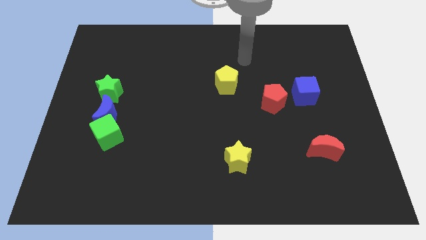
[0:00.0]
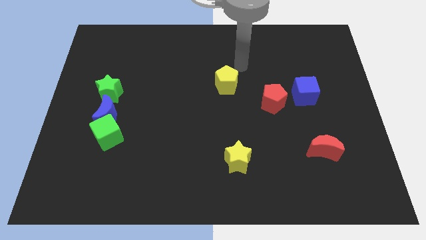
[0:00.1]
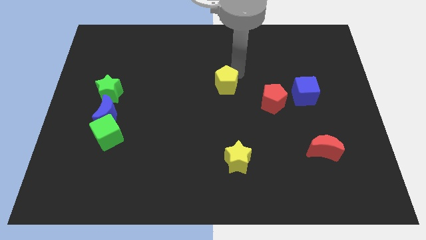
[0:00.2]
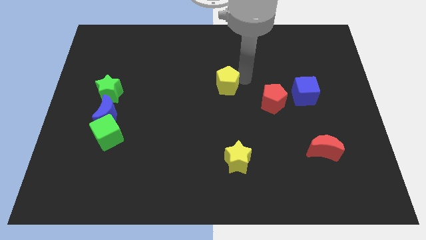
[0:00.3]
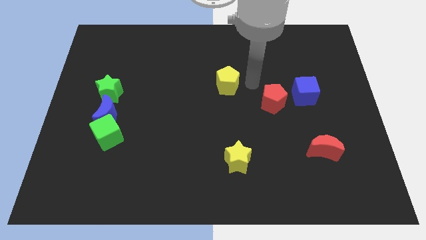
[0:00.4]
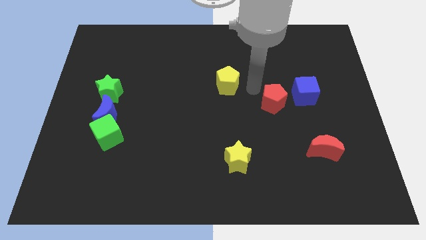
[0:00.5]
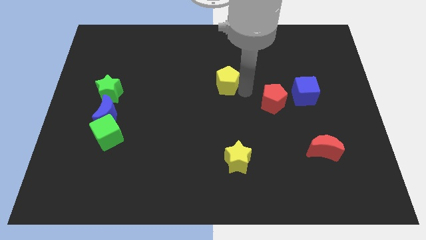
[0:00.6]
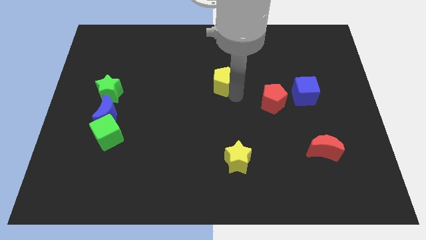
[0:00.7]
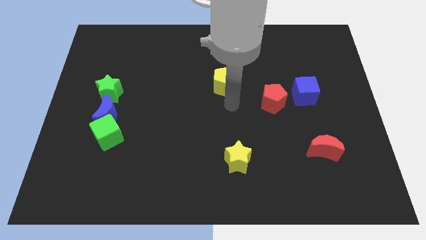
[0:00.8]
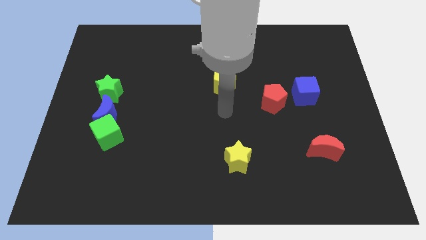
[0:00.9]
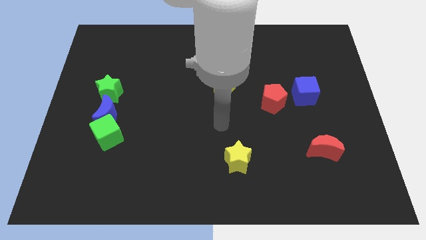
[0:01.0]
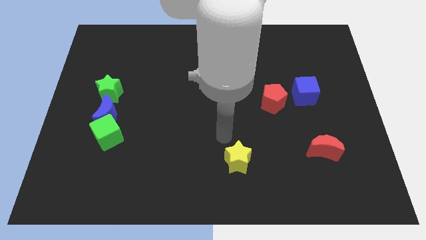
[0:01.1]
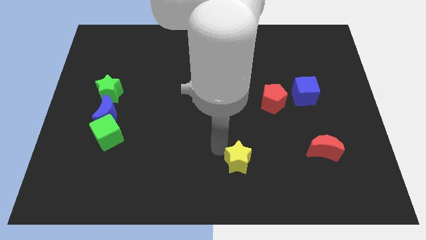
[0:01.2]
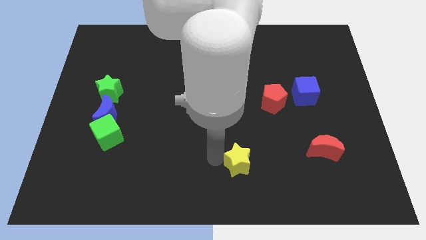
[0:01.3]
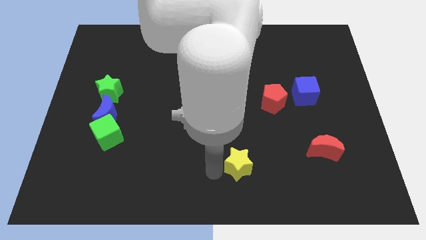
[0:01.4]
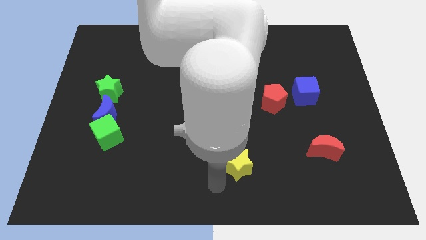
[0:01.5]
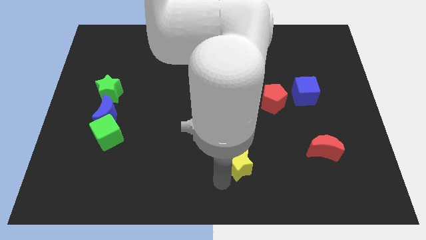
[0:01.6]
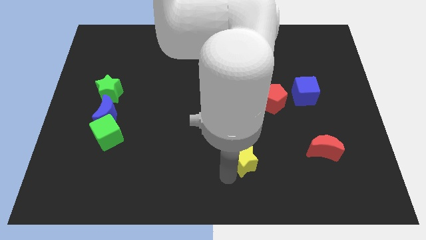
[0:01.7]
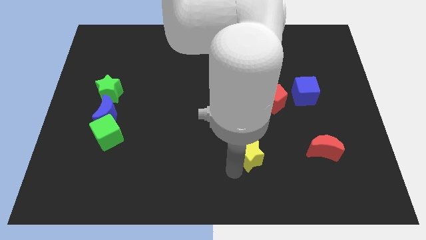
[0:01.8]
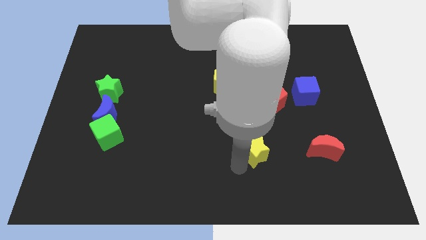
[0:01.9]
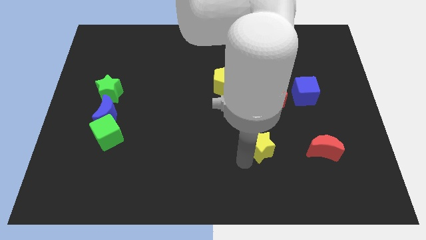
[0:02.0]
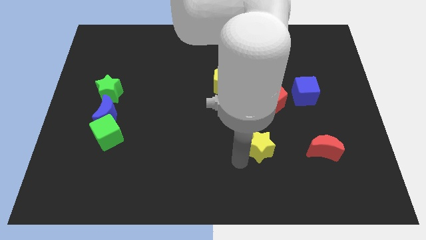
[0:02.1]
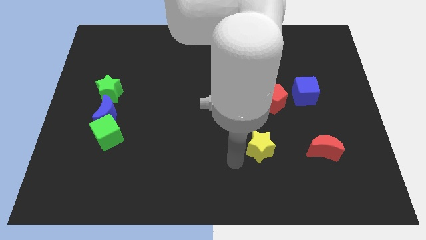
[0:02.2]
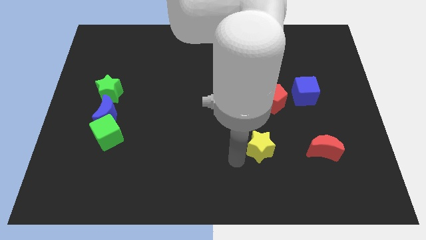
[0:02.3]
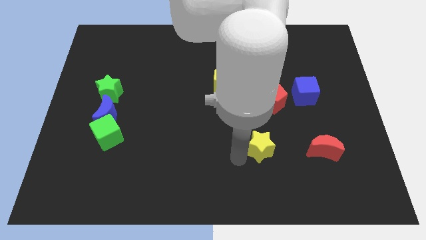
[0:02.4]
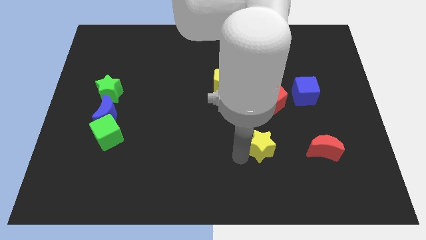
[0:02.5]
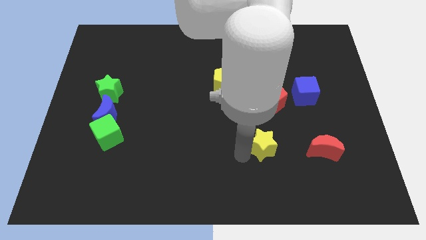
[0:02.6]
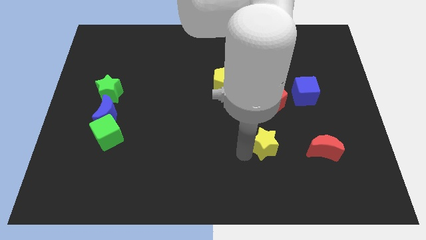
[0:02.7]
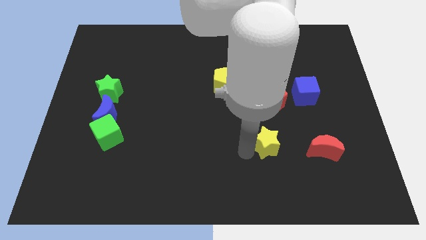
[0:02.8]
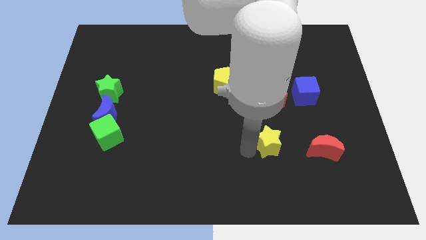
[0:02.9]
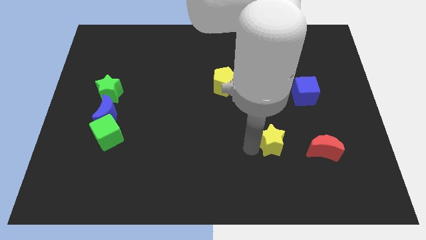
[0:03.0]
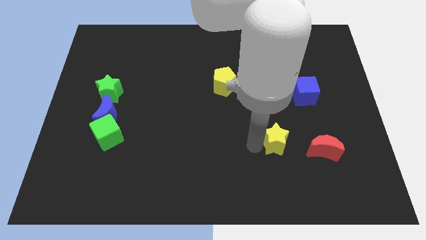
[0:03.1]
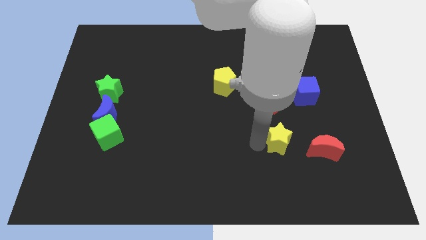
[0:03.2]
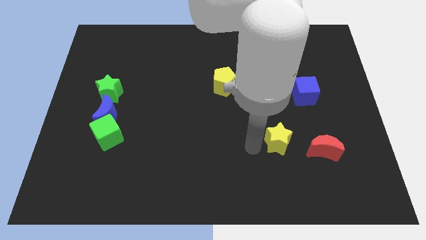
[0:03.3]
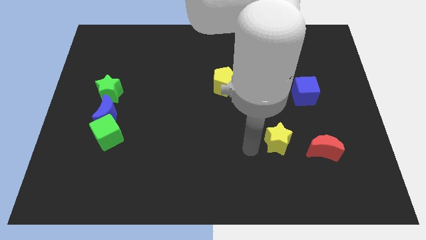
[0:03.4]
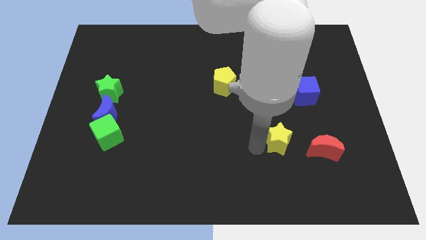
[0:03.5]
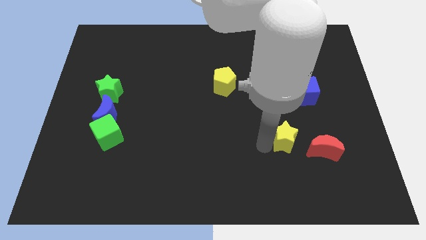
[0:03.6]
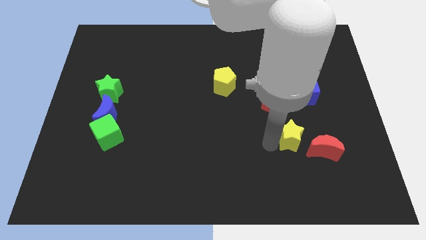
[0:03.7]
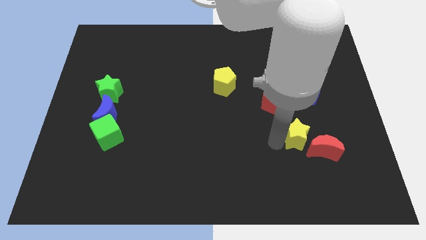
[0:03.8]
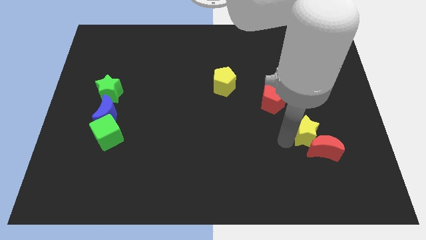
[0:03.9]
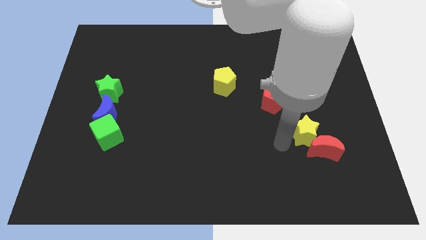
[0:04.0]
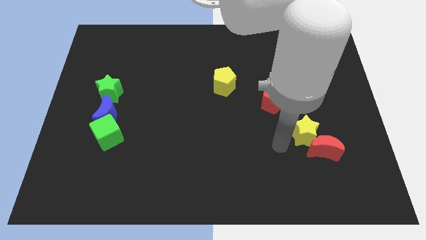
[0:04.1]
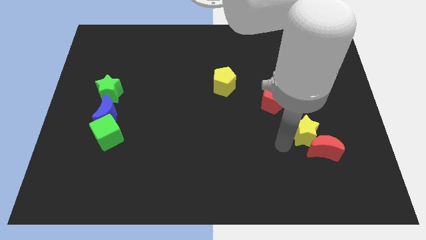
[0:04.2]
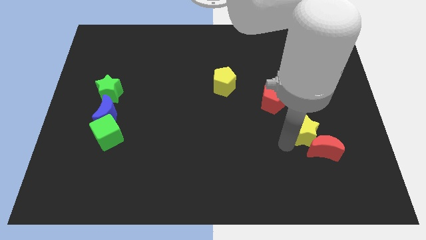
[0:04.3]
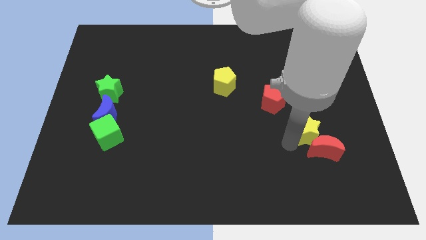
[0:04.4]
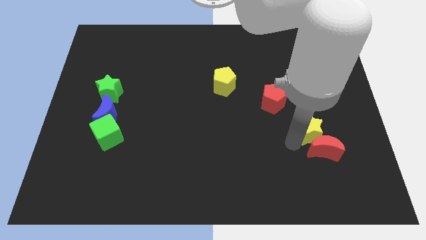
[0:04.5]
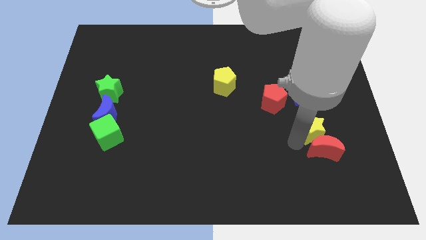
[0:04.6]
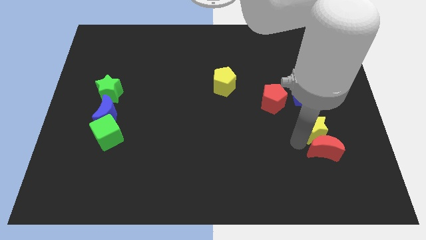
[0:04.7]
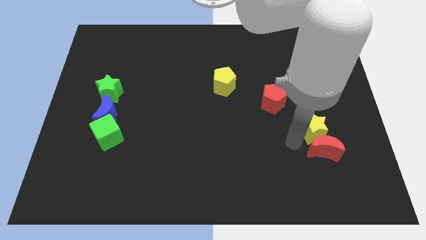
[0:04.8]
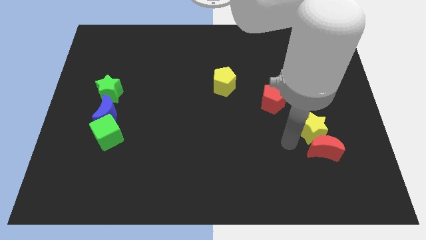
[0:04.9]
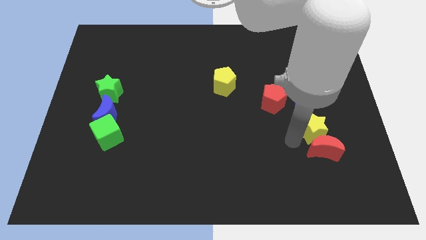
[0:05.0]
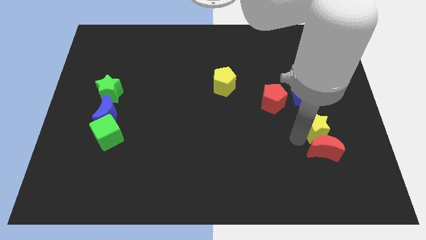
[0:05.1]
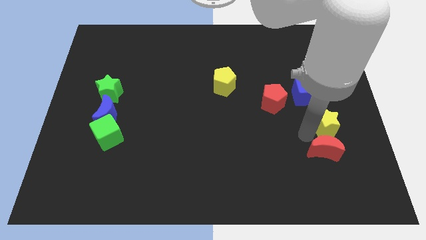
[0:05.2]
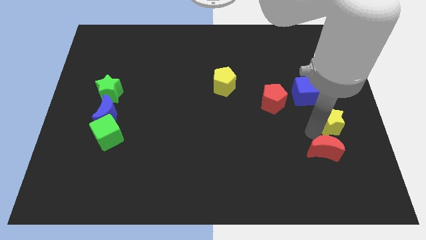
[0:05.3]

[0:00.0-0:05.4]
move the yellow star to the right side

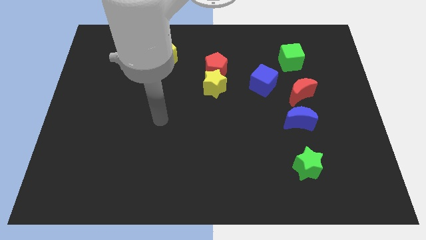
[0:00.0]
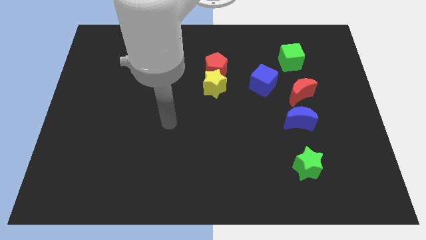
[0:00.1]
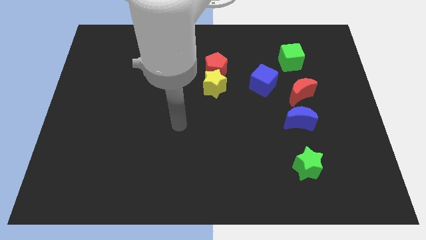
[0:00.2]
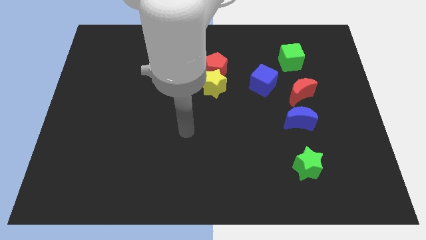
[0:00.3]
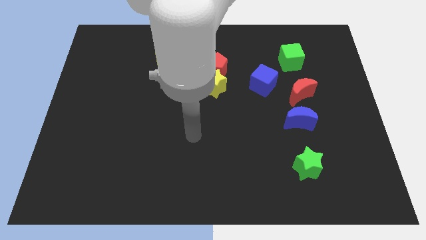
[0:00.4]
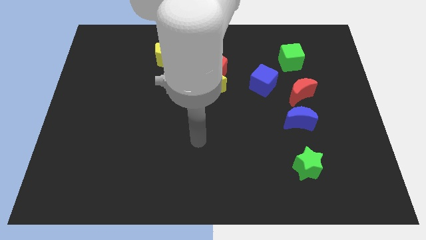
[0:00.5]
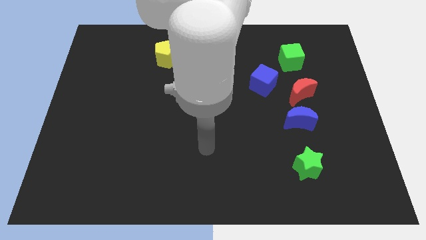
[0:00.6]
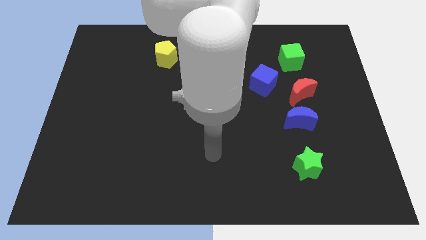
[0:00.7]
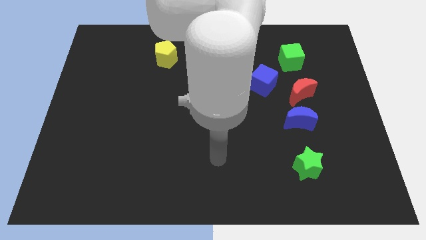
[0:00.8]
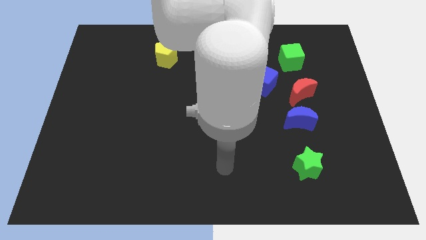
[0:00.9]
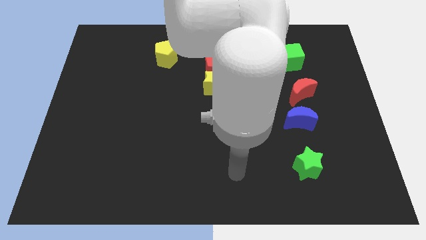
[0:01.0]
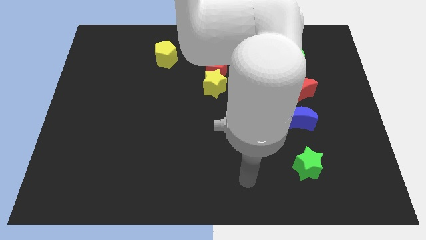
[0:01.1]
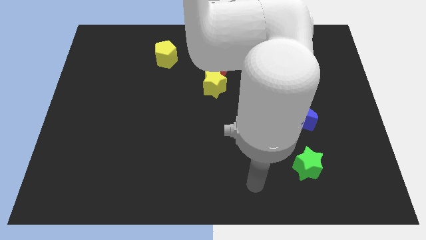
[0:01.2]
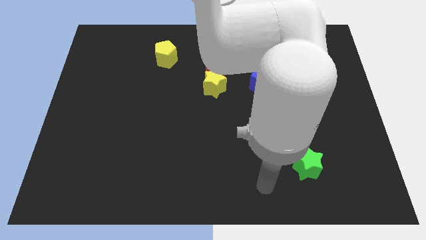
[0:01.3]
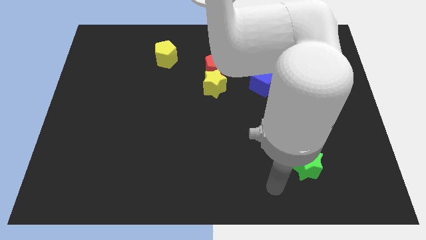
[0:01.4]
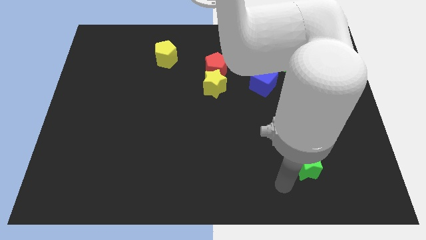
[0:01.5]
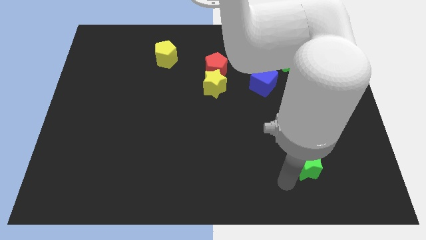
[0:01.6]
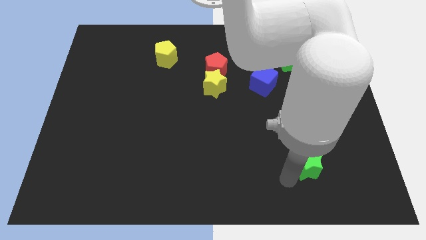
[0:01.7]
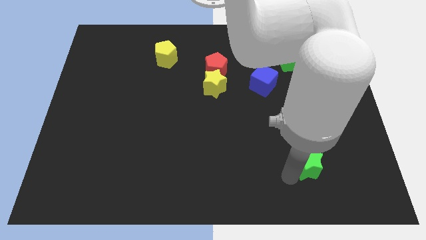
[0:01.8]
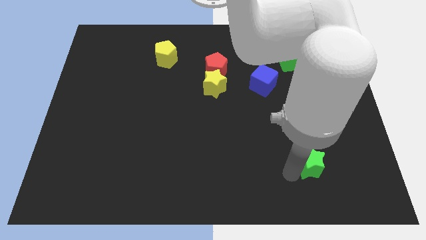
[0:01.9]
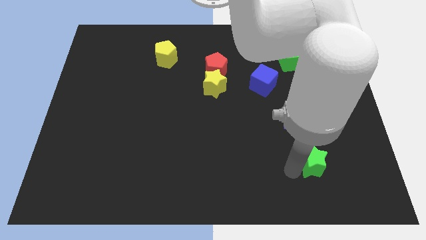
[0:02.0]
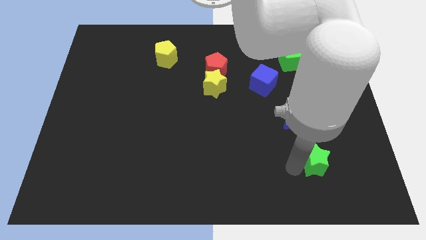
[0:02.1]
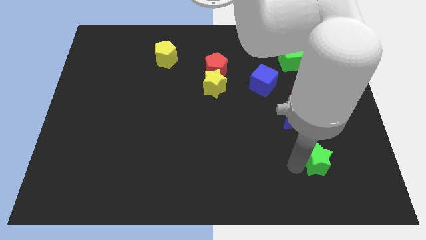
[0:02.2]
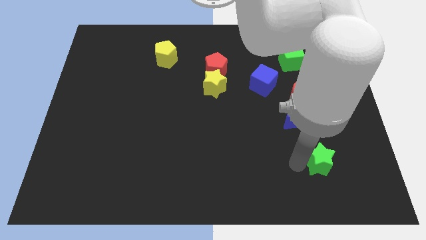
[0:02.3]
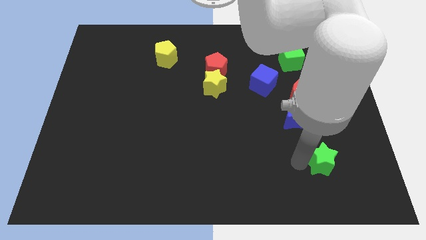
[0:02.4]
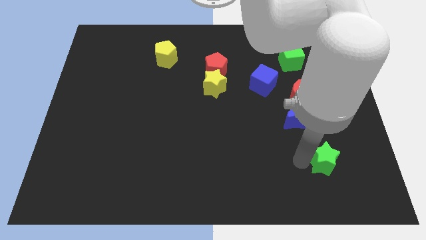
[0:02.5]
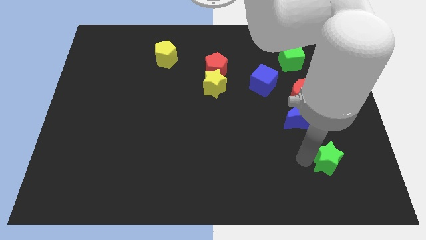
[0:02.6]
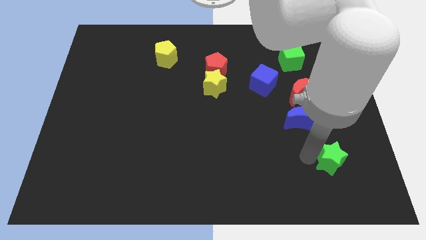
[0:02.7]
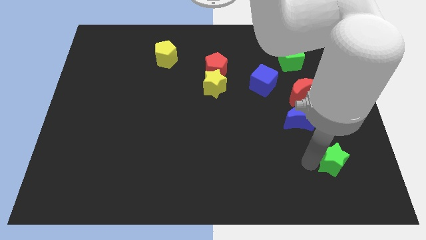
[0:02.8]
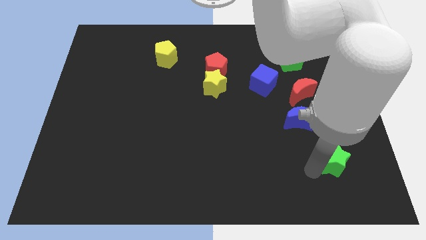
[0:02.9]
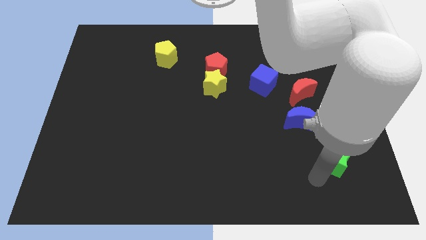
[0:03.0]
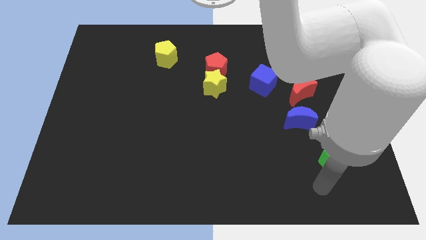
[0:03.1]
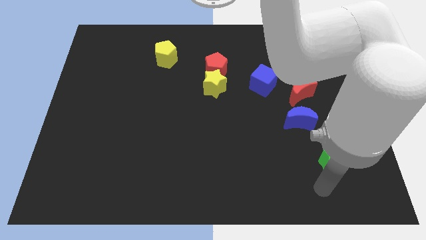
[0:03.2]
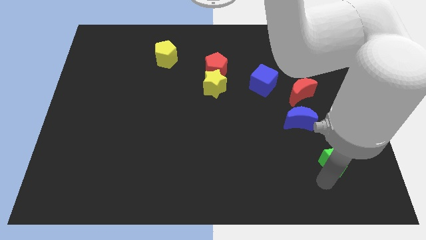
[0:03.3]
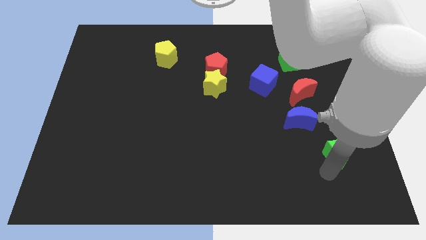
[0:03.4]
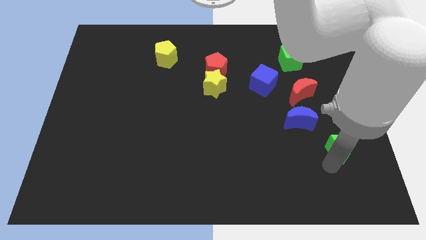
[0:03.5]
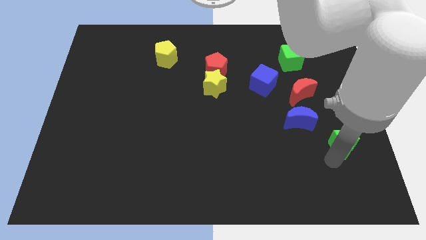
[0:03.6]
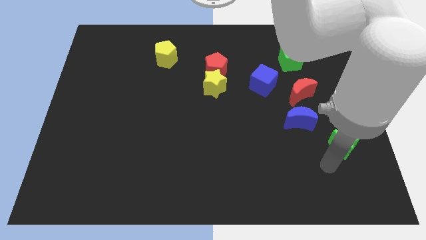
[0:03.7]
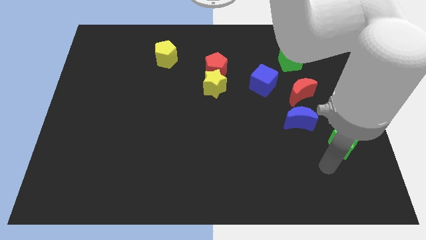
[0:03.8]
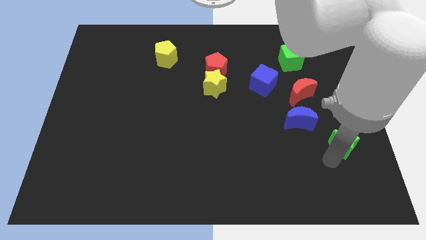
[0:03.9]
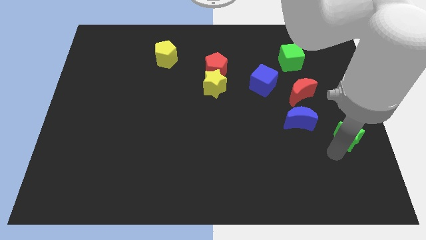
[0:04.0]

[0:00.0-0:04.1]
move the green star to the center right
